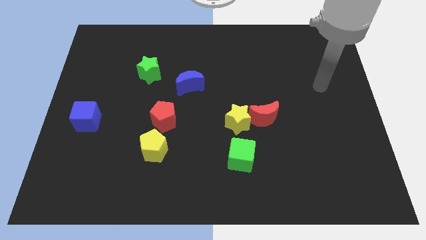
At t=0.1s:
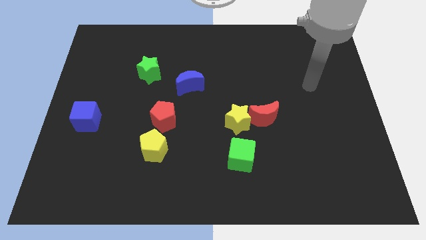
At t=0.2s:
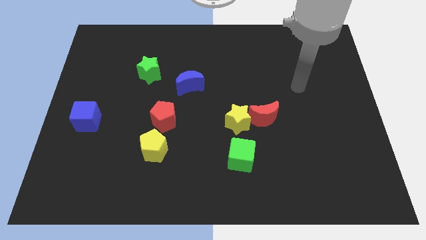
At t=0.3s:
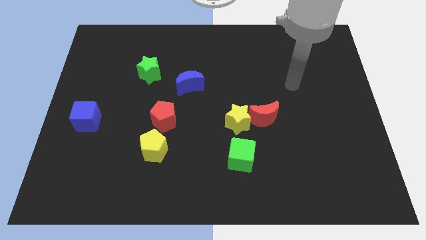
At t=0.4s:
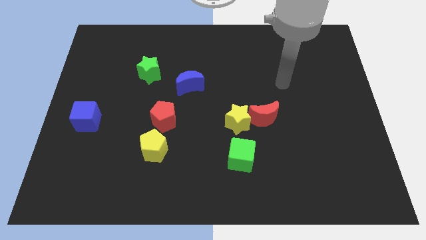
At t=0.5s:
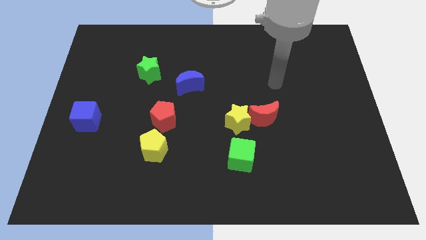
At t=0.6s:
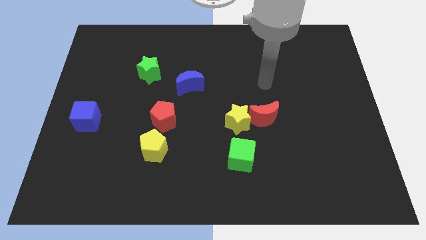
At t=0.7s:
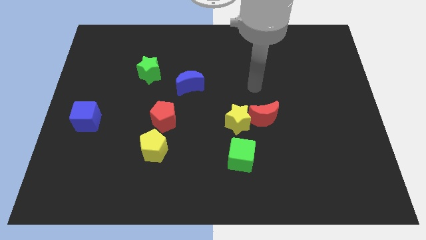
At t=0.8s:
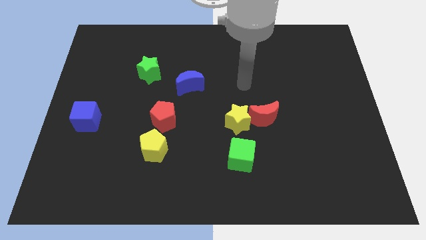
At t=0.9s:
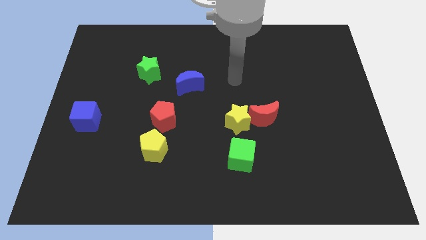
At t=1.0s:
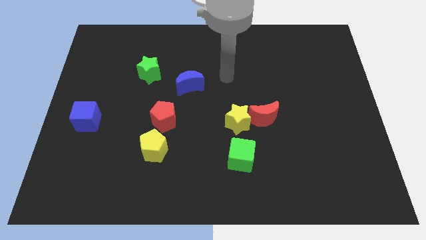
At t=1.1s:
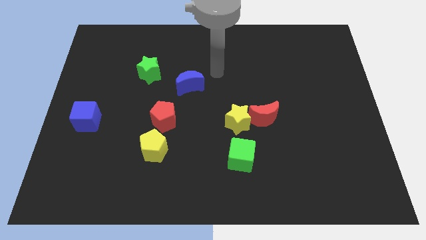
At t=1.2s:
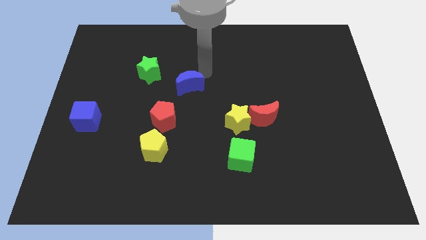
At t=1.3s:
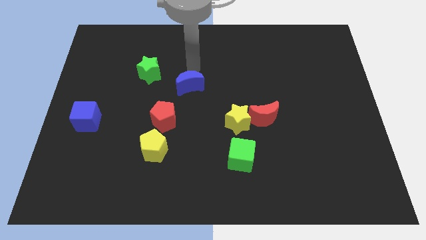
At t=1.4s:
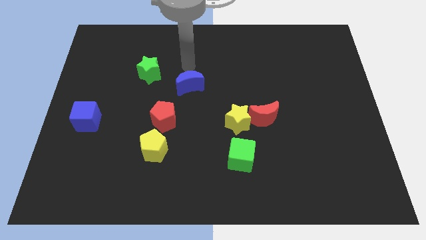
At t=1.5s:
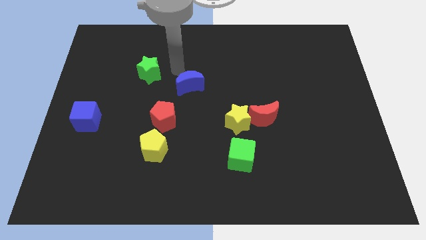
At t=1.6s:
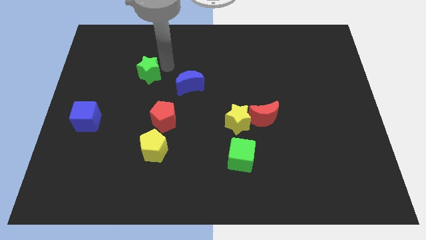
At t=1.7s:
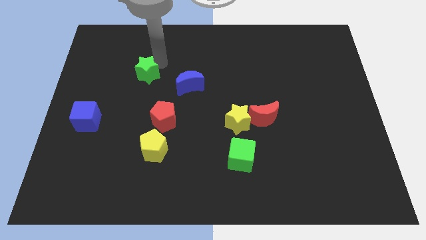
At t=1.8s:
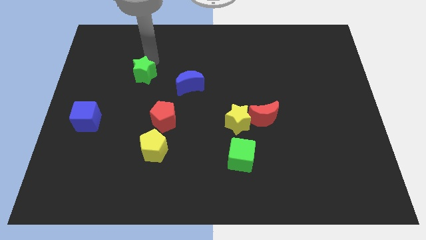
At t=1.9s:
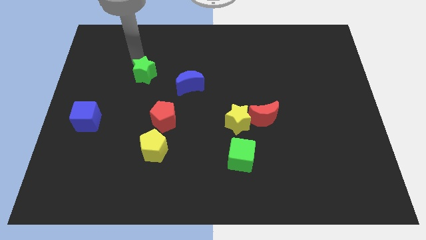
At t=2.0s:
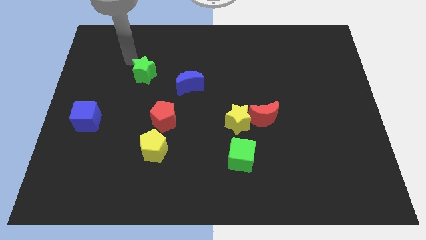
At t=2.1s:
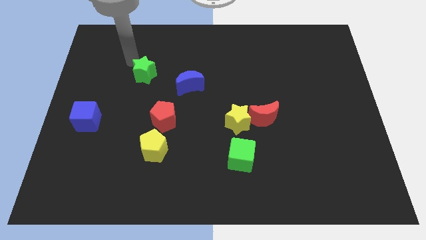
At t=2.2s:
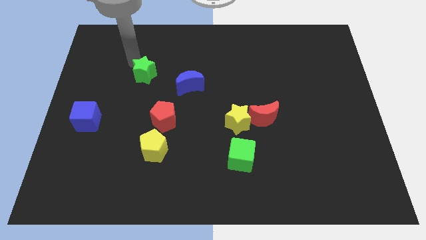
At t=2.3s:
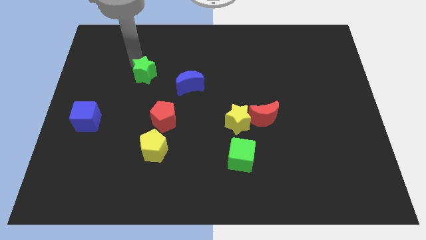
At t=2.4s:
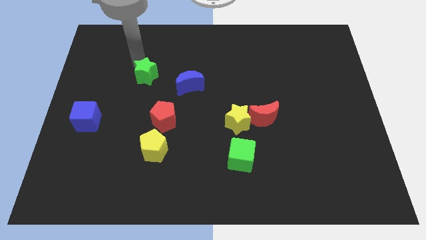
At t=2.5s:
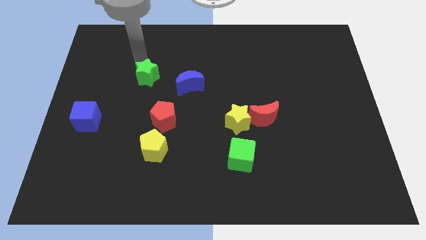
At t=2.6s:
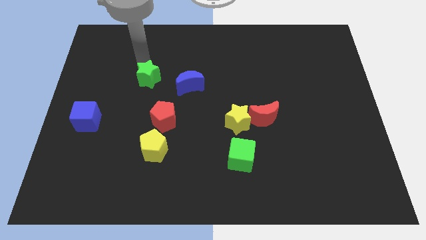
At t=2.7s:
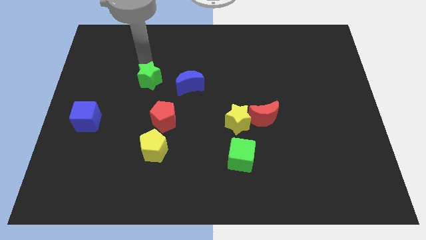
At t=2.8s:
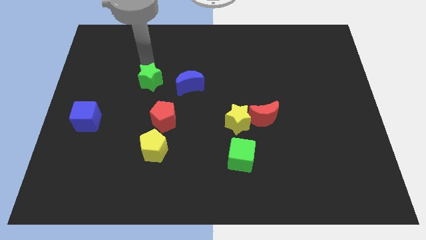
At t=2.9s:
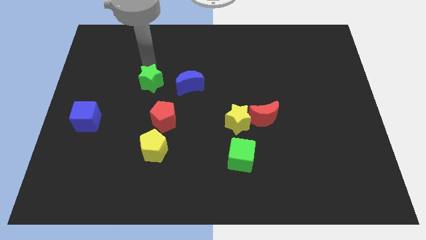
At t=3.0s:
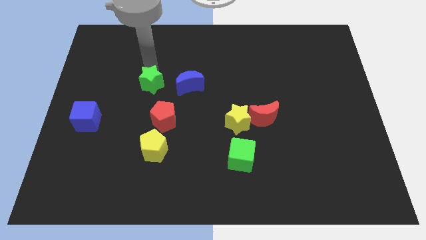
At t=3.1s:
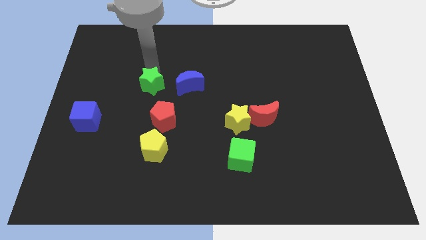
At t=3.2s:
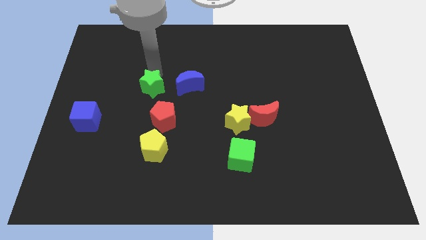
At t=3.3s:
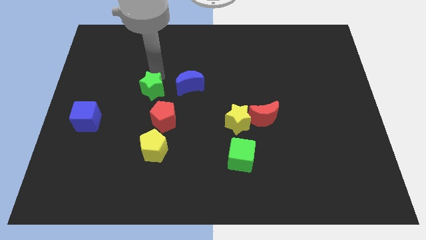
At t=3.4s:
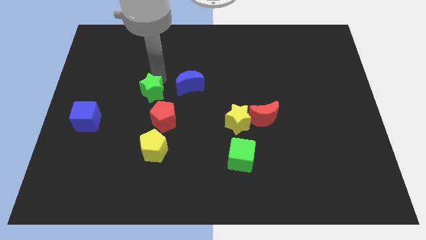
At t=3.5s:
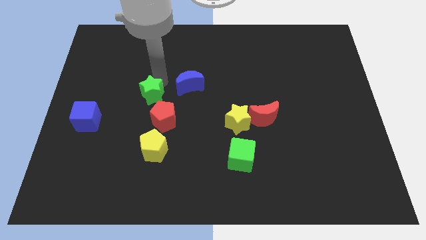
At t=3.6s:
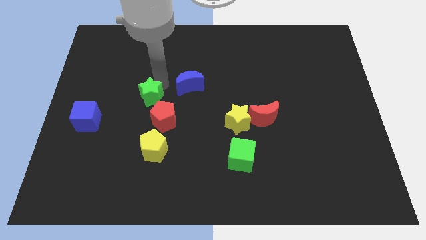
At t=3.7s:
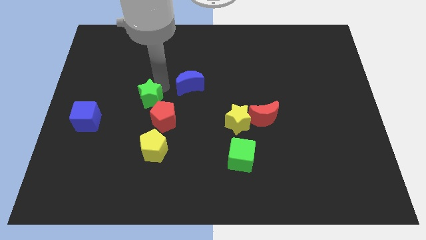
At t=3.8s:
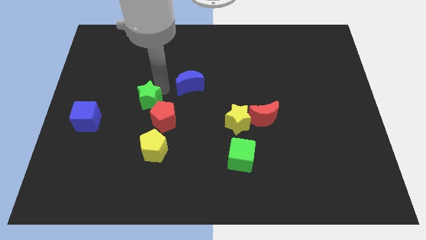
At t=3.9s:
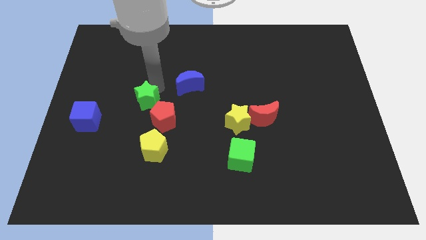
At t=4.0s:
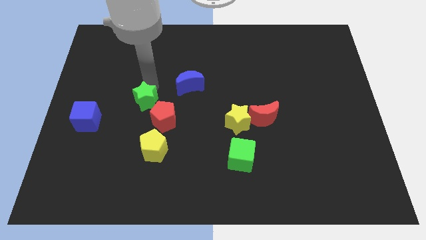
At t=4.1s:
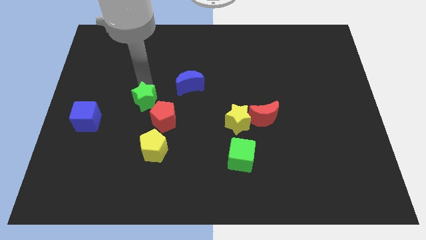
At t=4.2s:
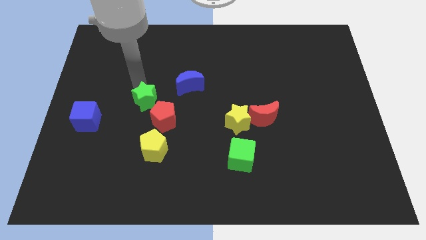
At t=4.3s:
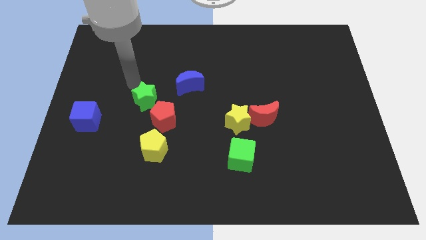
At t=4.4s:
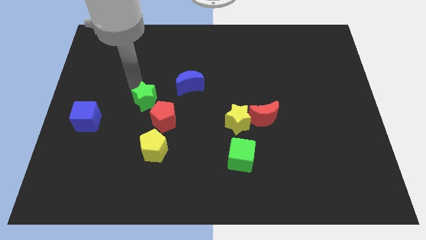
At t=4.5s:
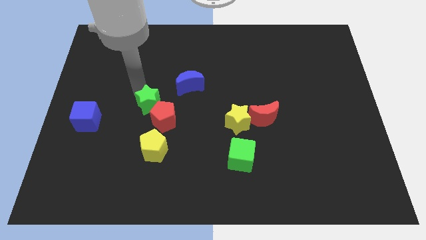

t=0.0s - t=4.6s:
push the green star next to the red pentagon

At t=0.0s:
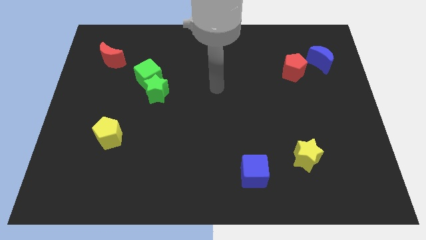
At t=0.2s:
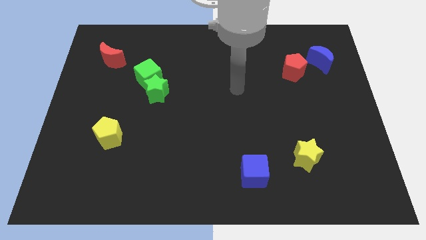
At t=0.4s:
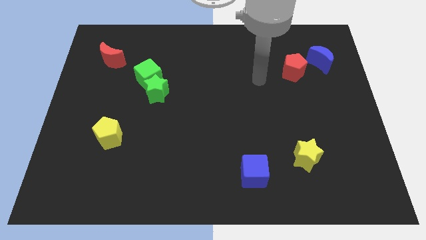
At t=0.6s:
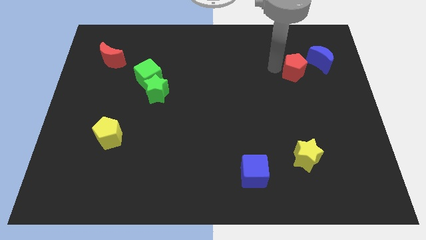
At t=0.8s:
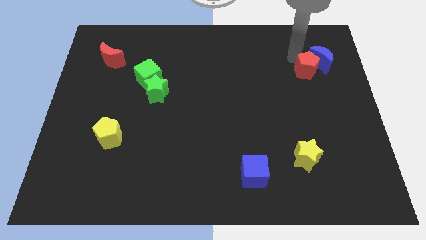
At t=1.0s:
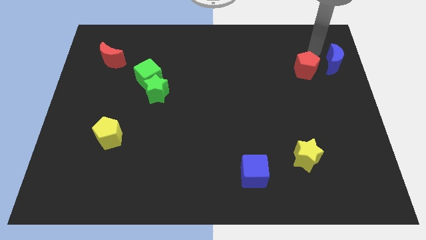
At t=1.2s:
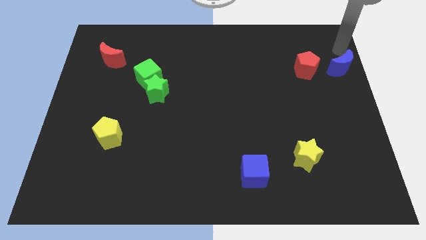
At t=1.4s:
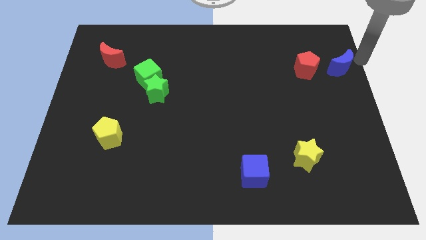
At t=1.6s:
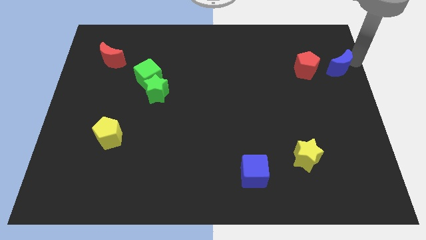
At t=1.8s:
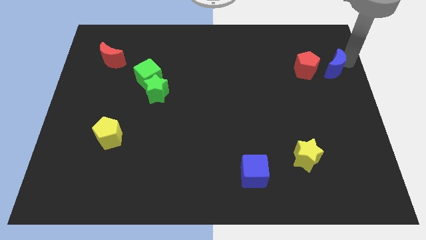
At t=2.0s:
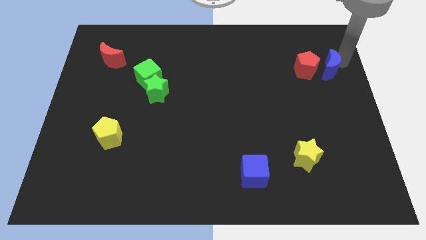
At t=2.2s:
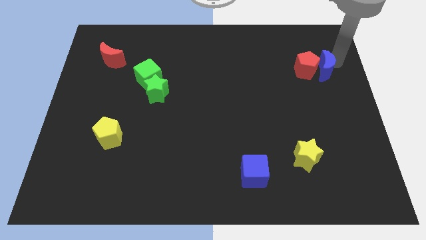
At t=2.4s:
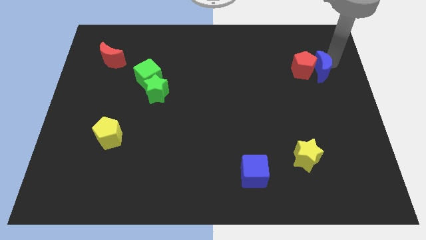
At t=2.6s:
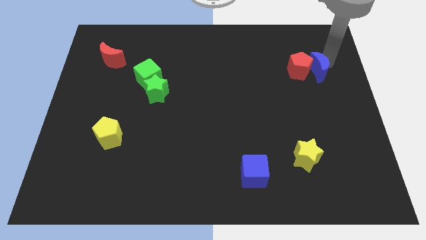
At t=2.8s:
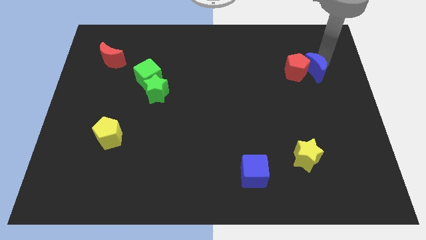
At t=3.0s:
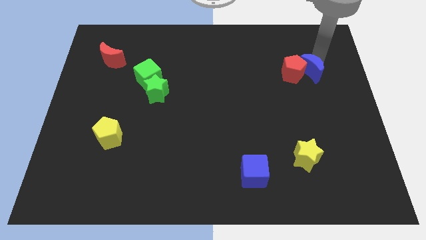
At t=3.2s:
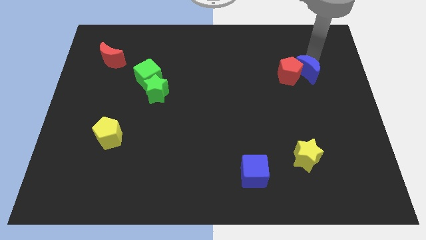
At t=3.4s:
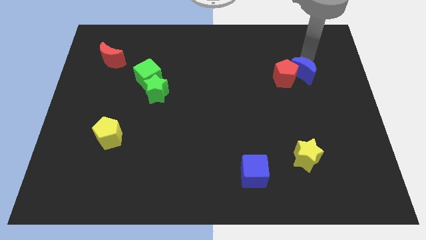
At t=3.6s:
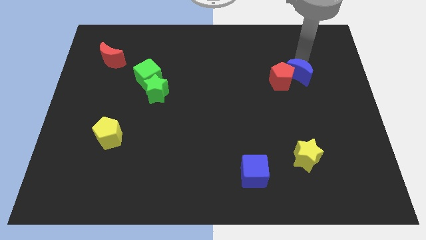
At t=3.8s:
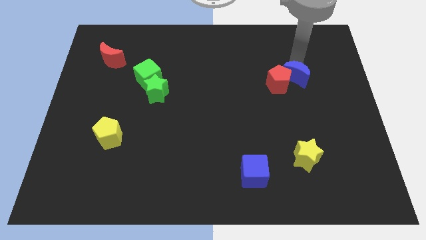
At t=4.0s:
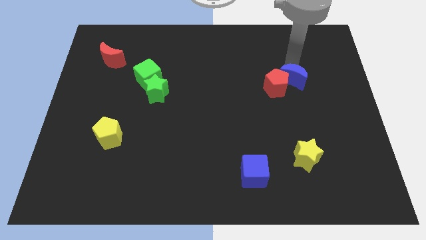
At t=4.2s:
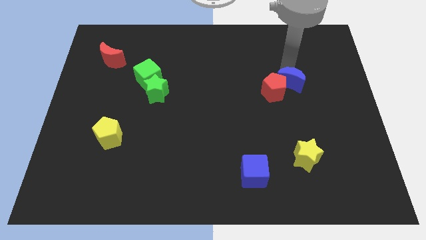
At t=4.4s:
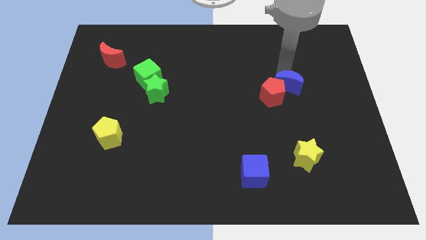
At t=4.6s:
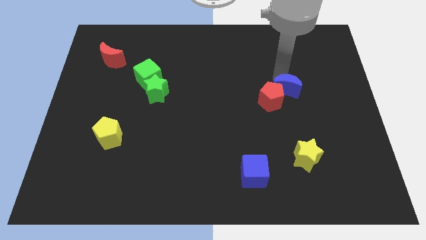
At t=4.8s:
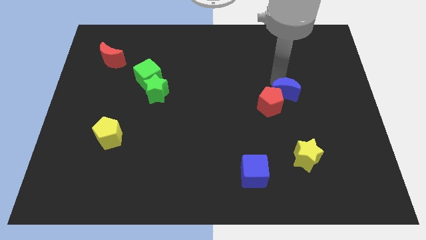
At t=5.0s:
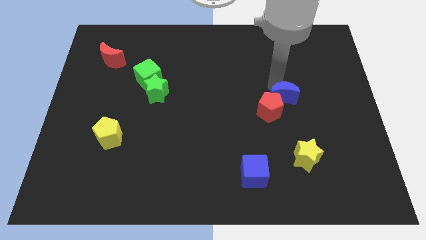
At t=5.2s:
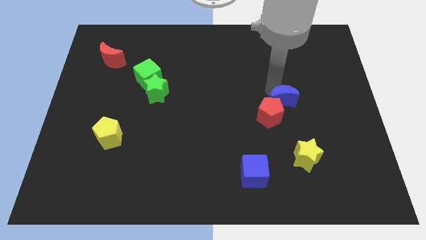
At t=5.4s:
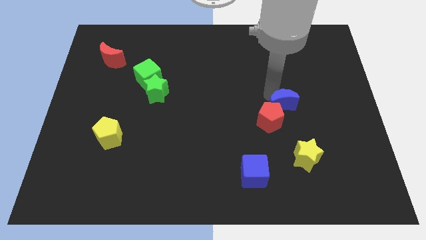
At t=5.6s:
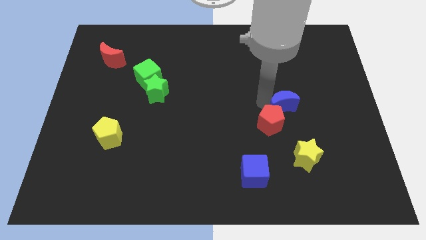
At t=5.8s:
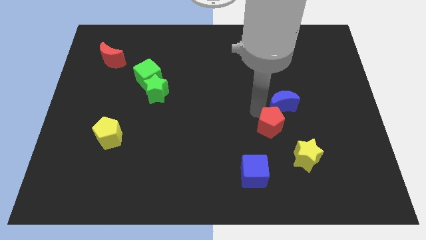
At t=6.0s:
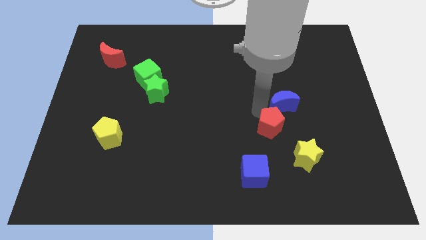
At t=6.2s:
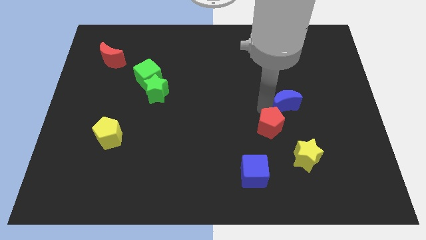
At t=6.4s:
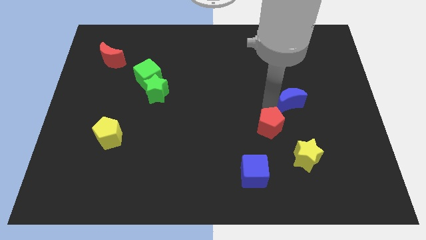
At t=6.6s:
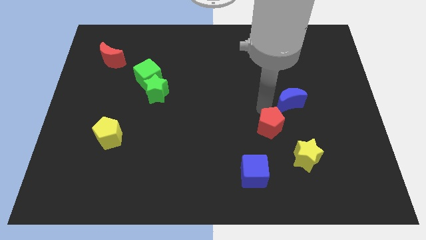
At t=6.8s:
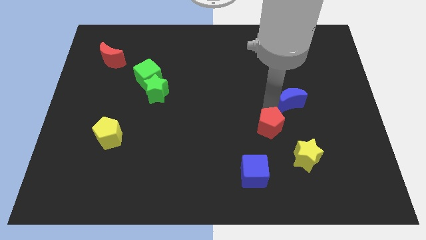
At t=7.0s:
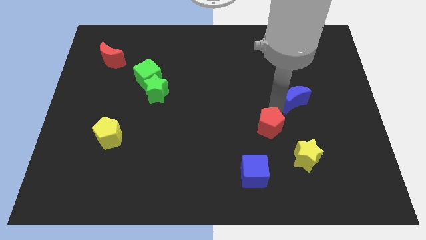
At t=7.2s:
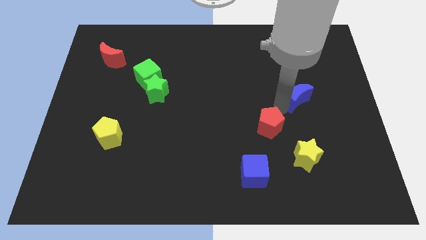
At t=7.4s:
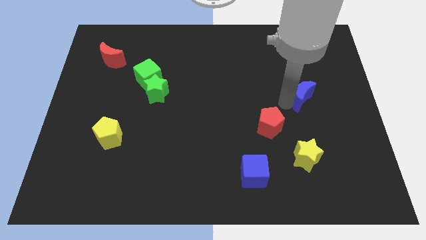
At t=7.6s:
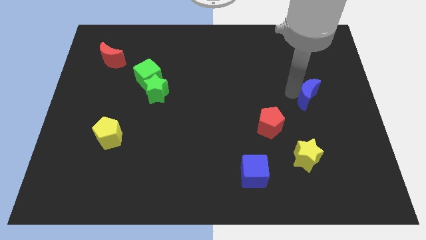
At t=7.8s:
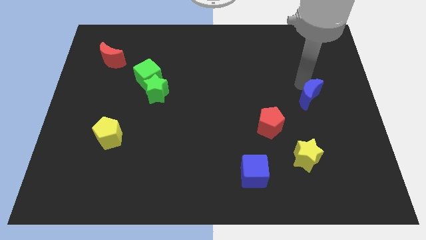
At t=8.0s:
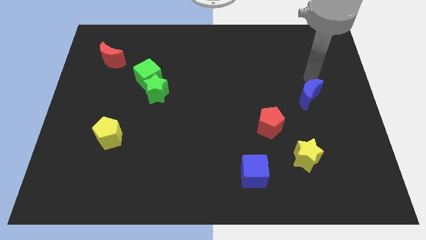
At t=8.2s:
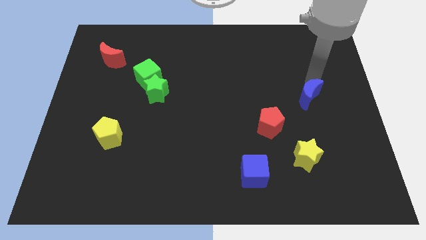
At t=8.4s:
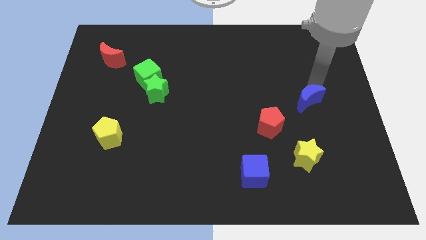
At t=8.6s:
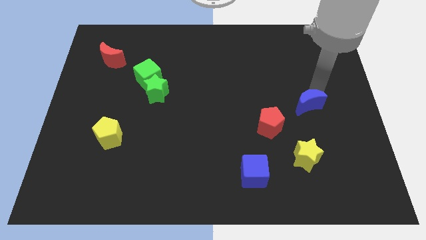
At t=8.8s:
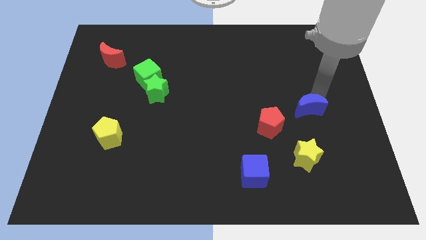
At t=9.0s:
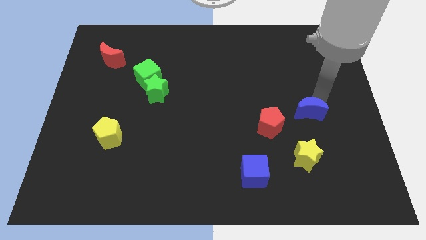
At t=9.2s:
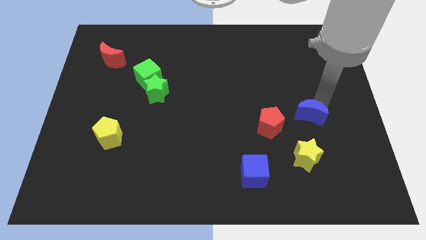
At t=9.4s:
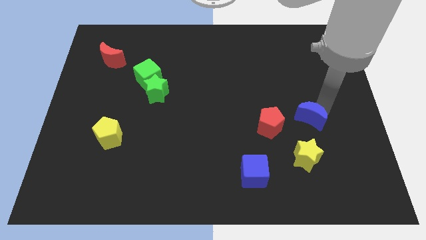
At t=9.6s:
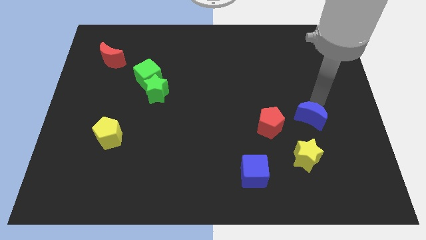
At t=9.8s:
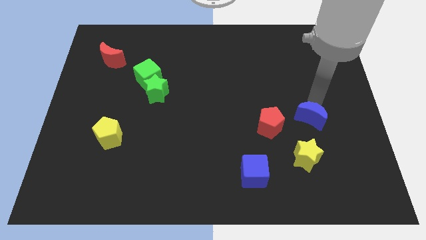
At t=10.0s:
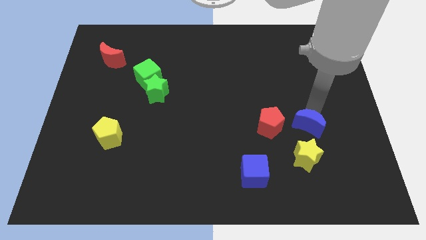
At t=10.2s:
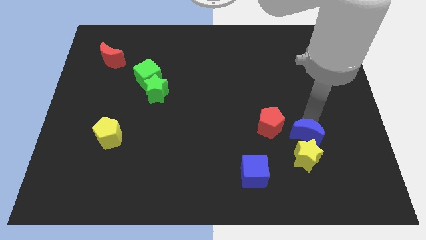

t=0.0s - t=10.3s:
move the blue moon towards the yellow star
